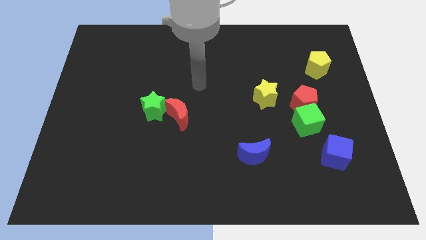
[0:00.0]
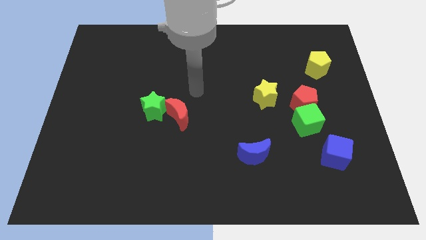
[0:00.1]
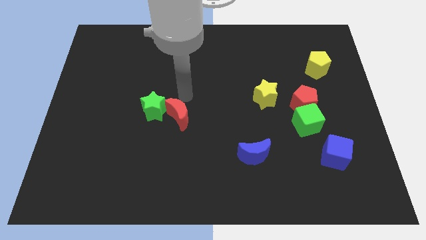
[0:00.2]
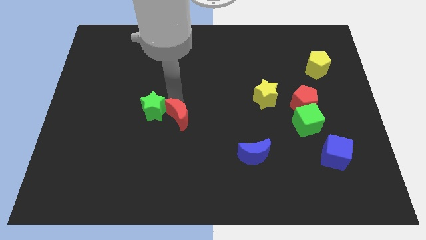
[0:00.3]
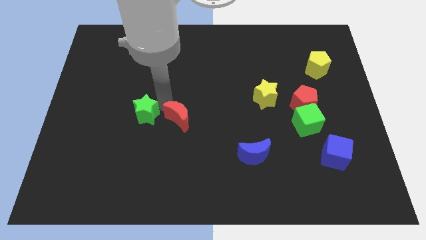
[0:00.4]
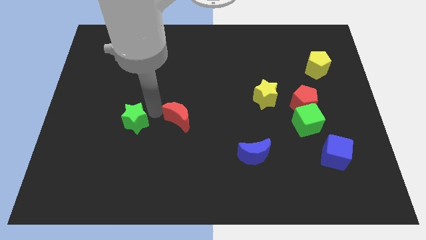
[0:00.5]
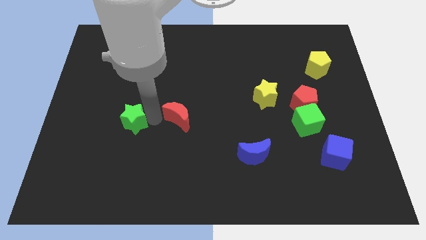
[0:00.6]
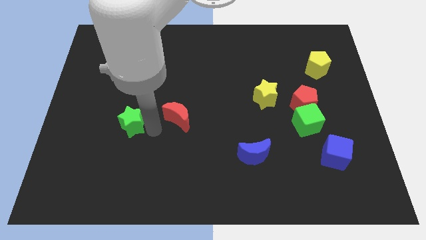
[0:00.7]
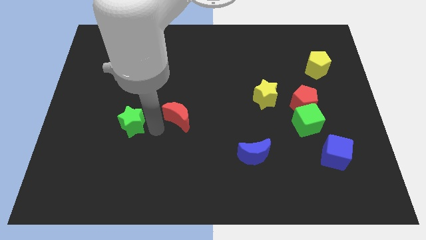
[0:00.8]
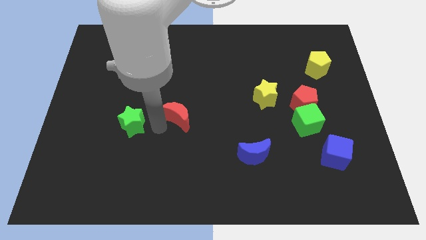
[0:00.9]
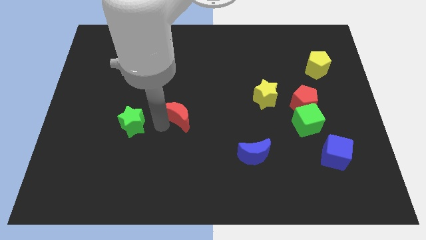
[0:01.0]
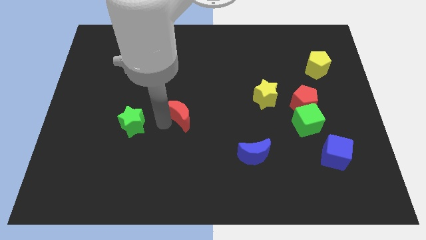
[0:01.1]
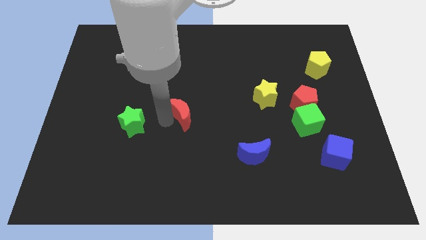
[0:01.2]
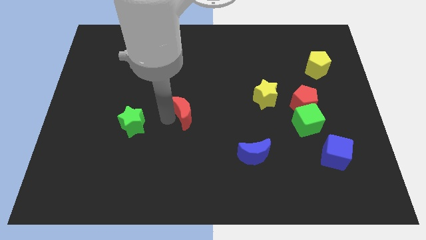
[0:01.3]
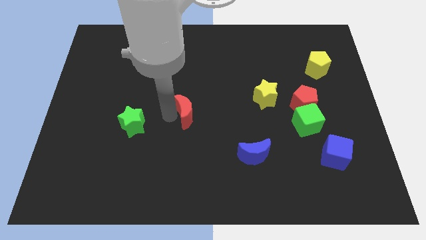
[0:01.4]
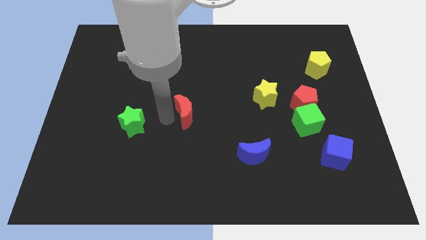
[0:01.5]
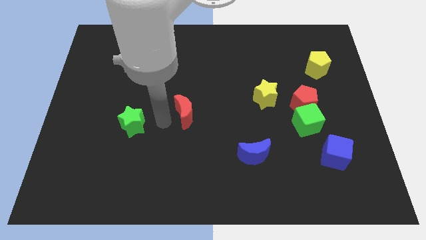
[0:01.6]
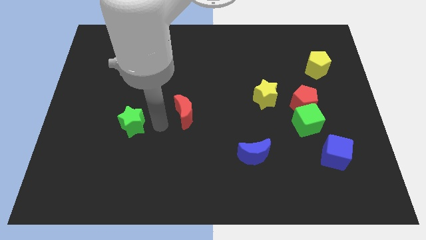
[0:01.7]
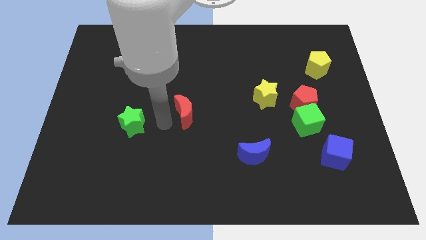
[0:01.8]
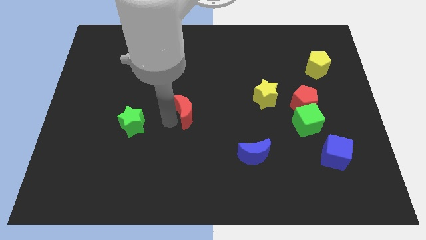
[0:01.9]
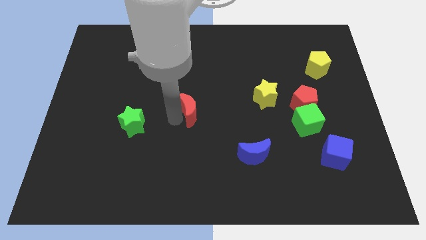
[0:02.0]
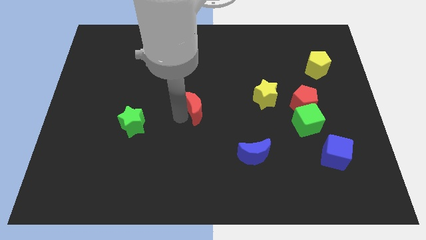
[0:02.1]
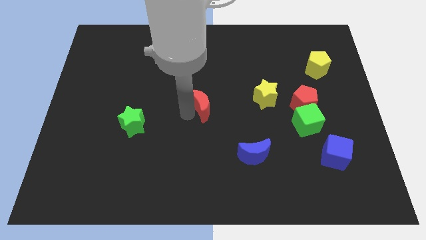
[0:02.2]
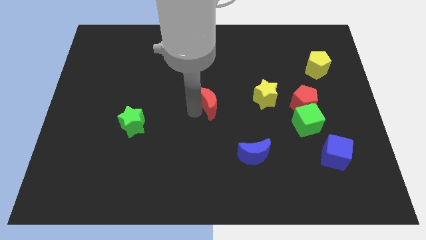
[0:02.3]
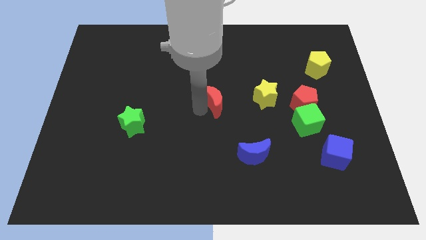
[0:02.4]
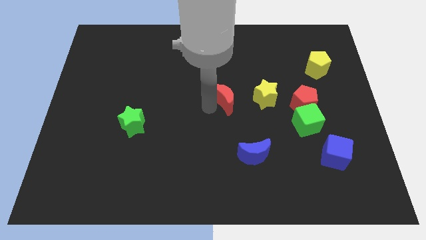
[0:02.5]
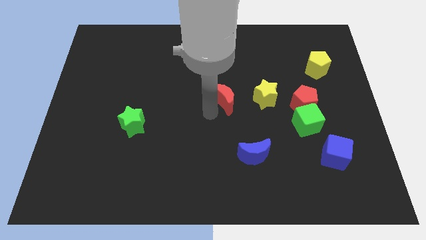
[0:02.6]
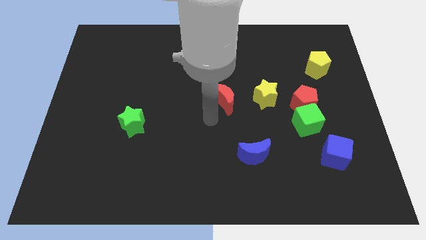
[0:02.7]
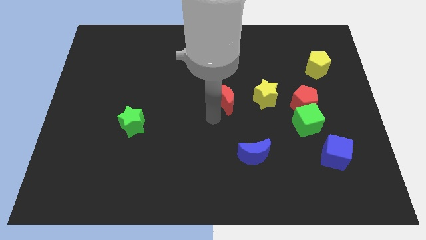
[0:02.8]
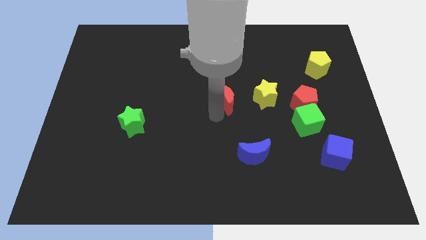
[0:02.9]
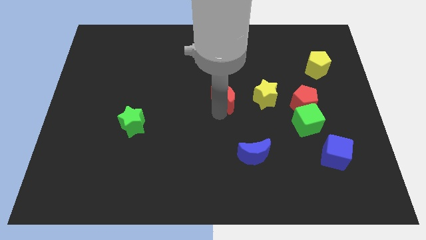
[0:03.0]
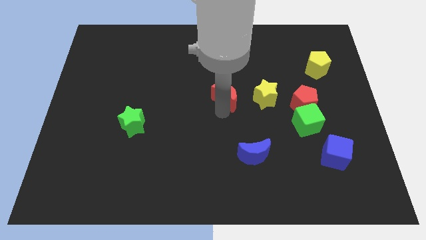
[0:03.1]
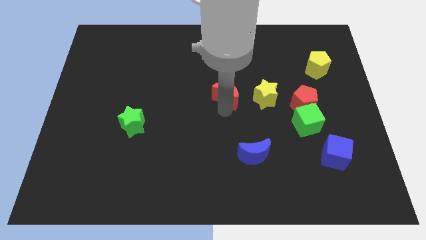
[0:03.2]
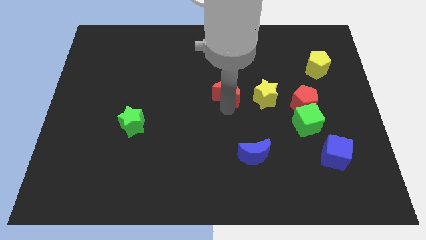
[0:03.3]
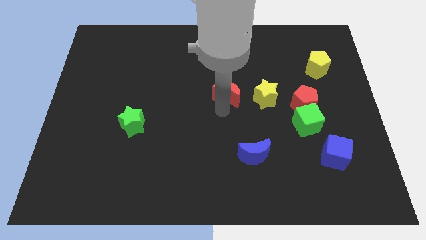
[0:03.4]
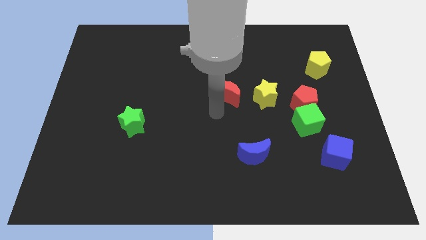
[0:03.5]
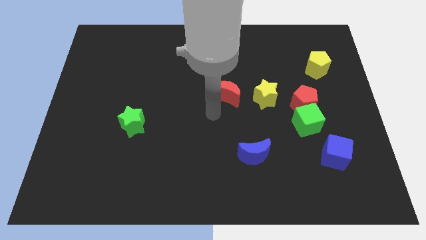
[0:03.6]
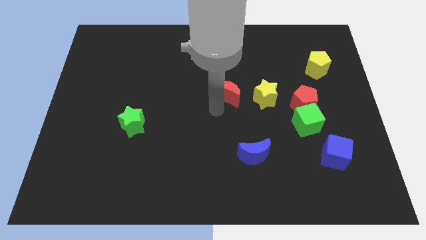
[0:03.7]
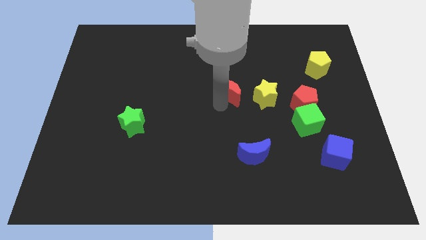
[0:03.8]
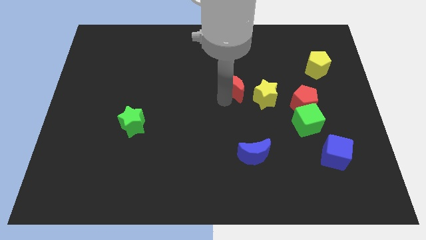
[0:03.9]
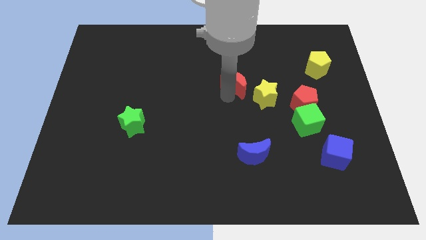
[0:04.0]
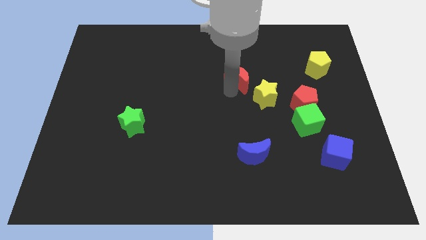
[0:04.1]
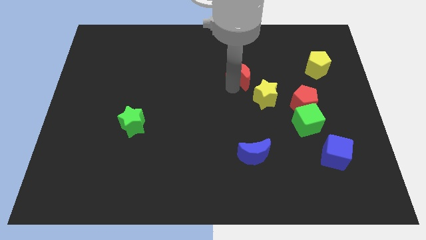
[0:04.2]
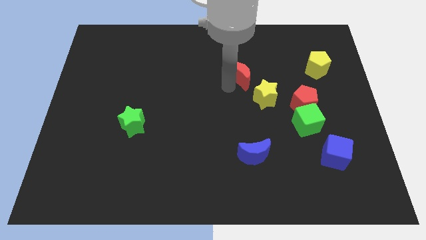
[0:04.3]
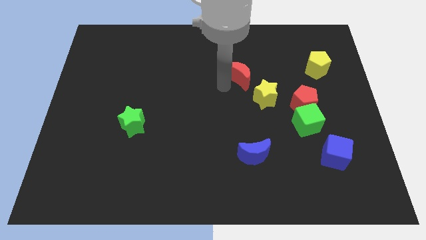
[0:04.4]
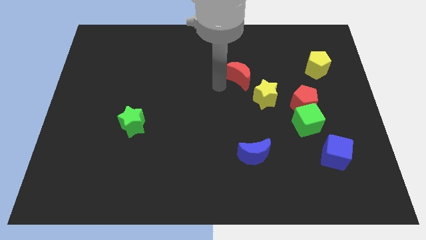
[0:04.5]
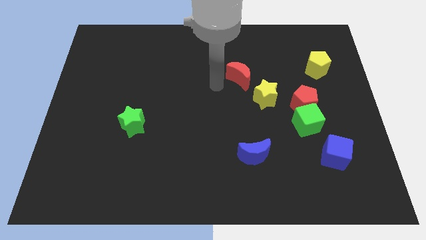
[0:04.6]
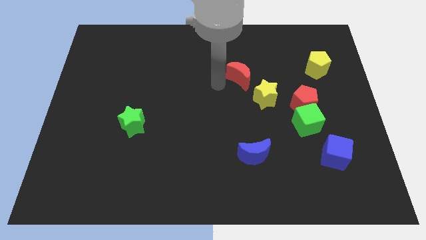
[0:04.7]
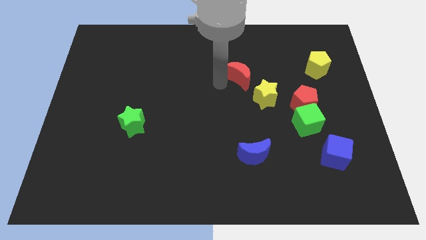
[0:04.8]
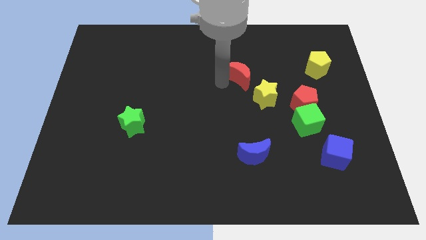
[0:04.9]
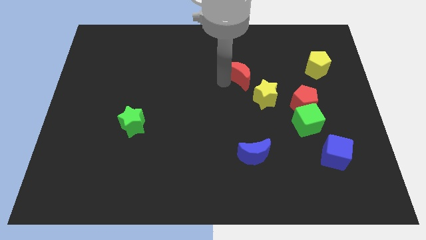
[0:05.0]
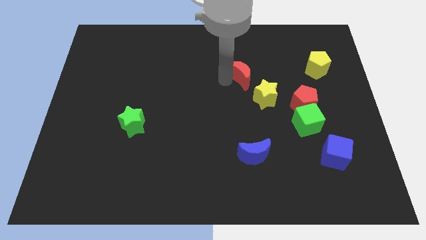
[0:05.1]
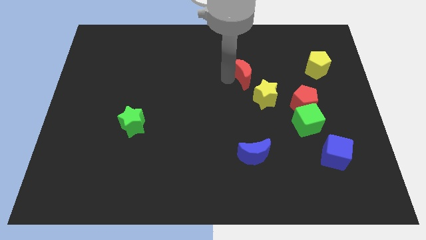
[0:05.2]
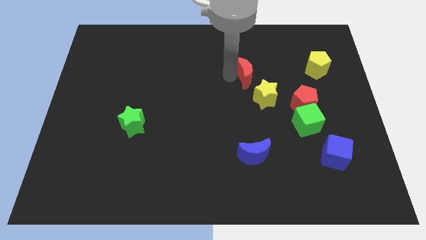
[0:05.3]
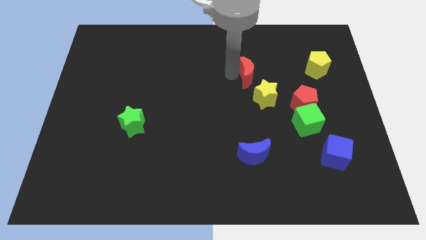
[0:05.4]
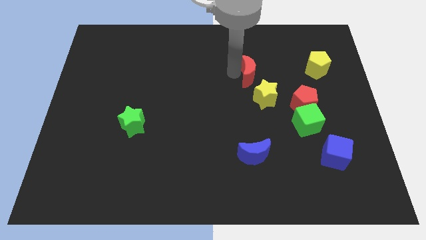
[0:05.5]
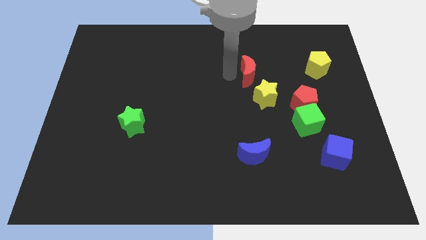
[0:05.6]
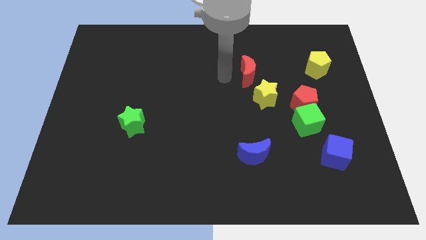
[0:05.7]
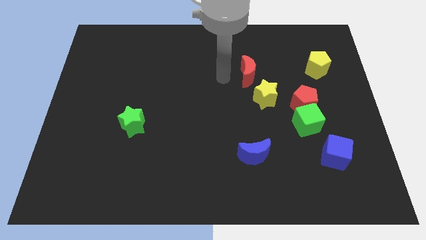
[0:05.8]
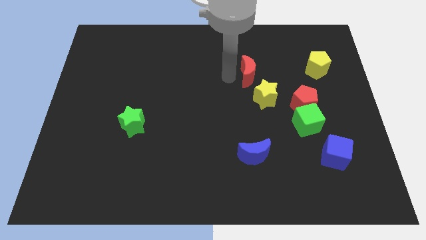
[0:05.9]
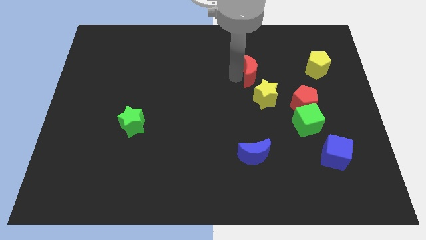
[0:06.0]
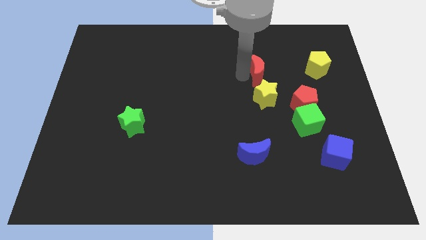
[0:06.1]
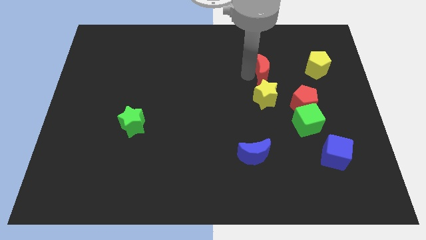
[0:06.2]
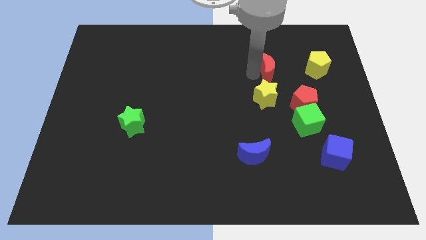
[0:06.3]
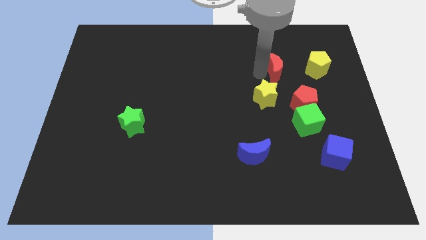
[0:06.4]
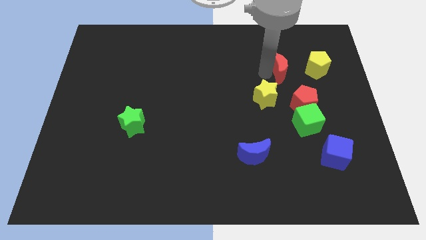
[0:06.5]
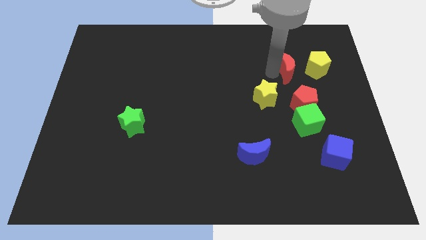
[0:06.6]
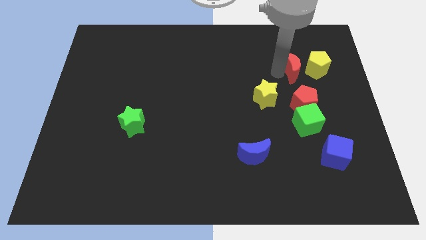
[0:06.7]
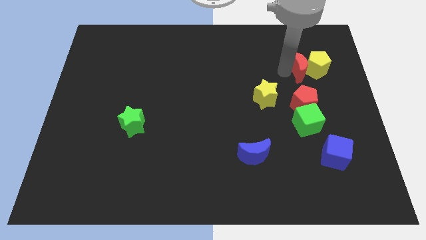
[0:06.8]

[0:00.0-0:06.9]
push the red moon towards the yellow pentagon

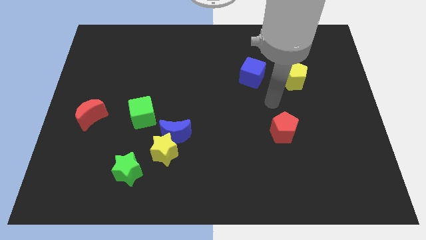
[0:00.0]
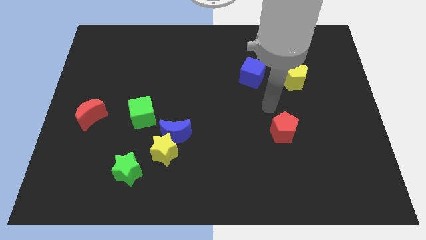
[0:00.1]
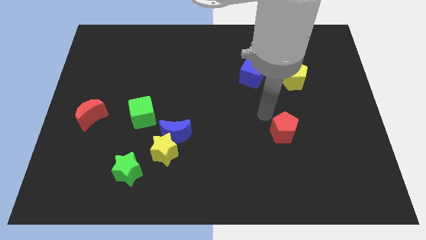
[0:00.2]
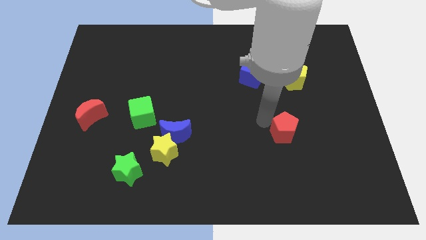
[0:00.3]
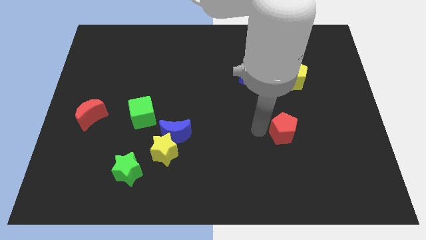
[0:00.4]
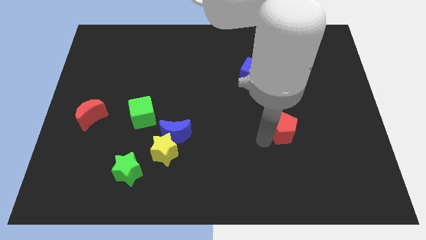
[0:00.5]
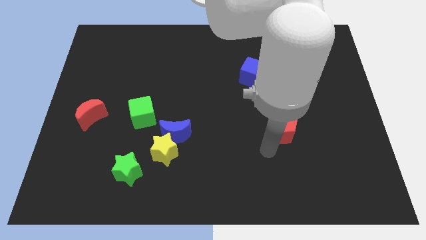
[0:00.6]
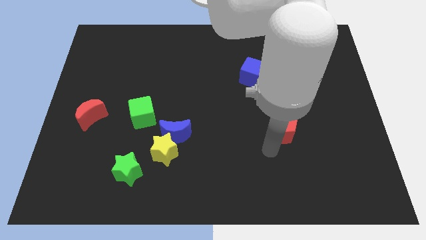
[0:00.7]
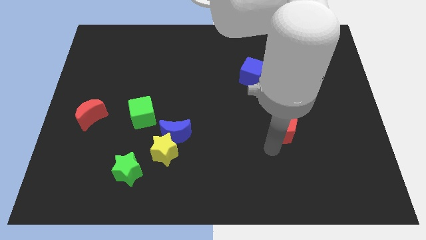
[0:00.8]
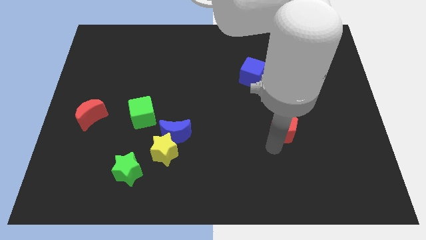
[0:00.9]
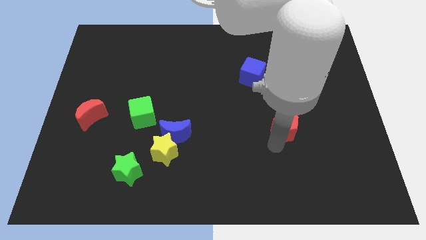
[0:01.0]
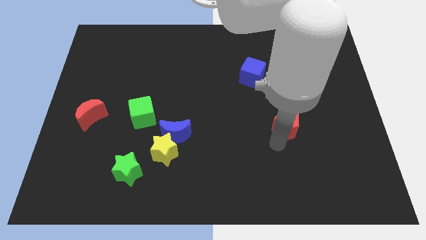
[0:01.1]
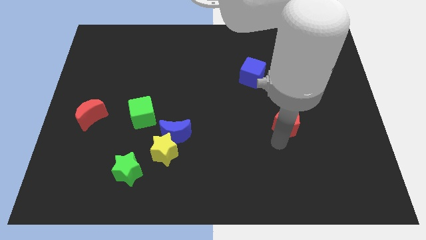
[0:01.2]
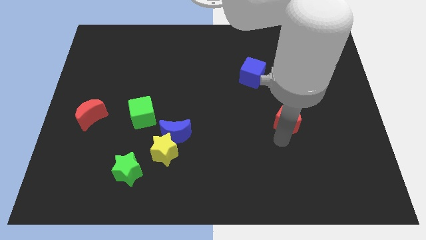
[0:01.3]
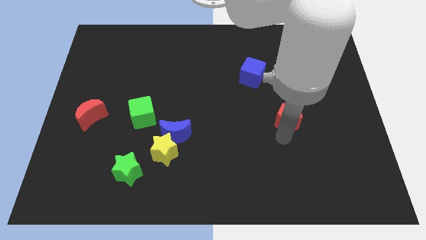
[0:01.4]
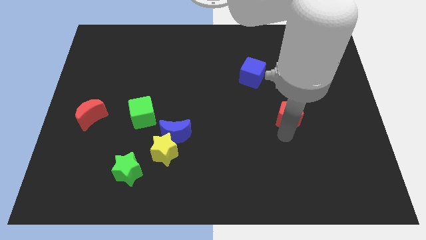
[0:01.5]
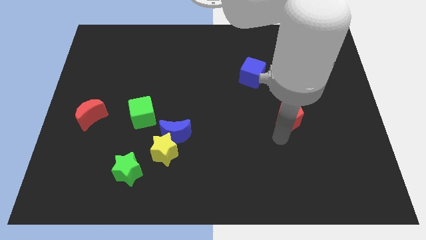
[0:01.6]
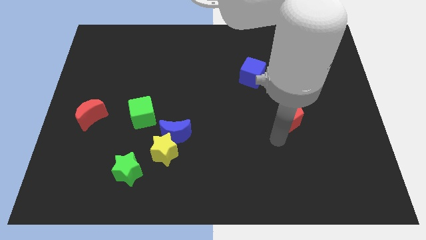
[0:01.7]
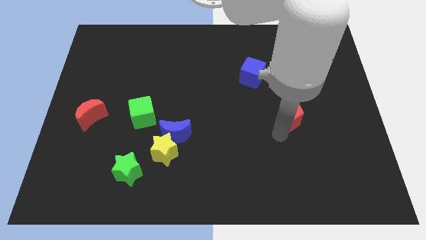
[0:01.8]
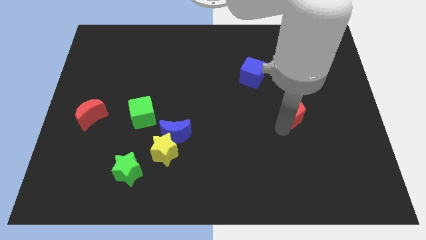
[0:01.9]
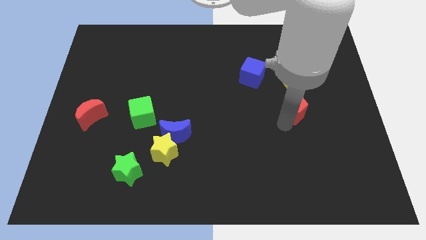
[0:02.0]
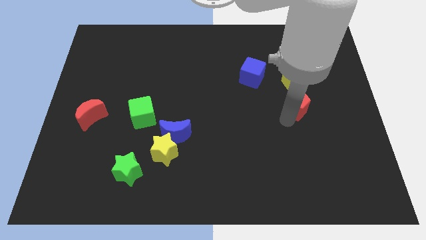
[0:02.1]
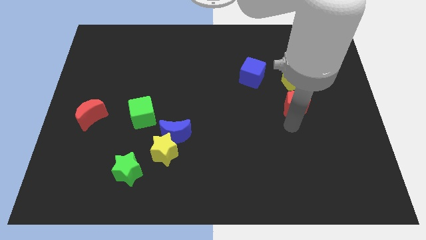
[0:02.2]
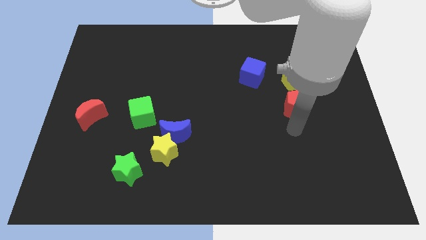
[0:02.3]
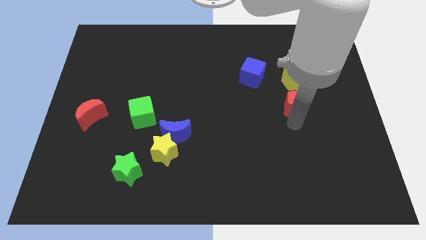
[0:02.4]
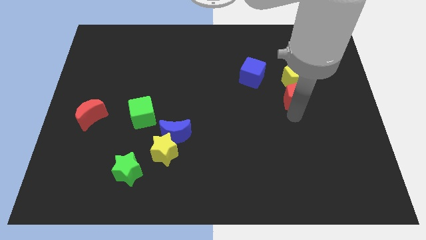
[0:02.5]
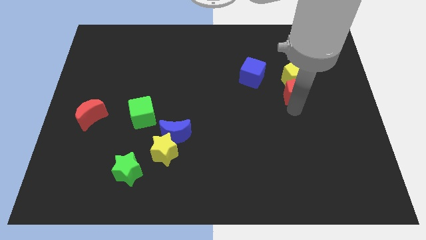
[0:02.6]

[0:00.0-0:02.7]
put the red pentagon to the yellow pentagon
